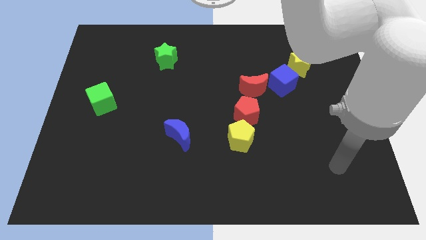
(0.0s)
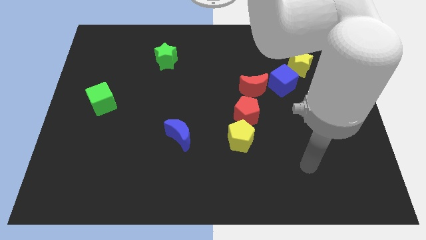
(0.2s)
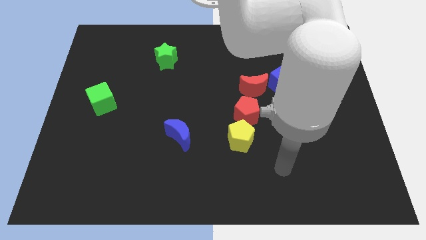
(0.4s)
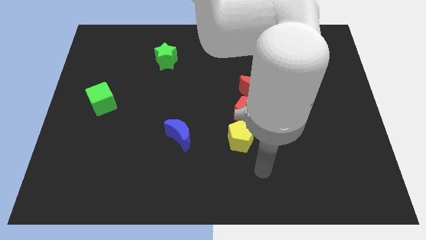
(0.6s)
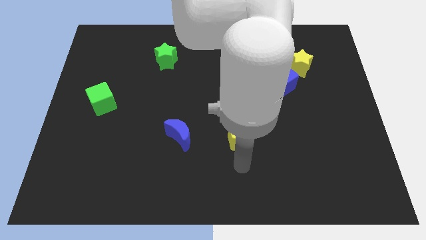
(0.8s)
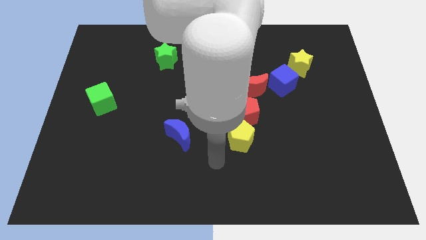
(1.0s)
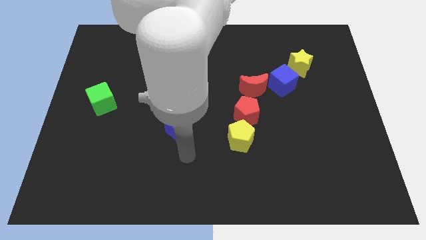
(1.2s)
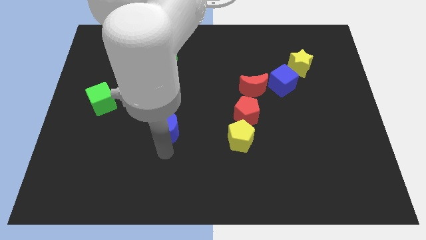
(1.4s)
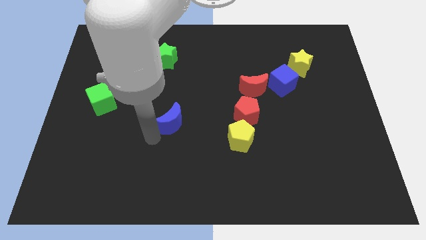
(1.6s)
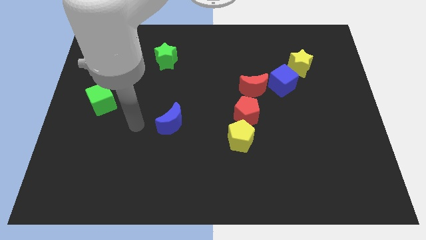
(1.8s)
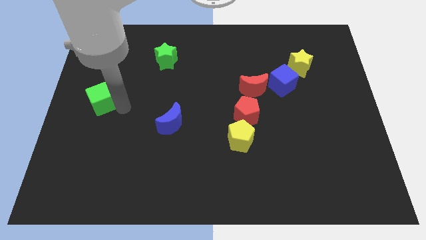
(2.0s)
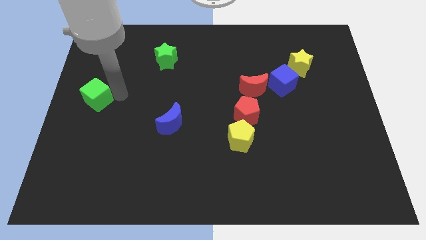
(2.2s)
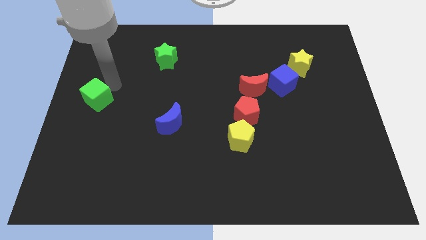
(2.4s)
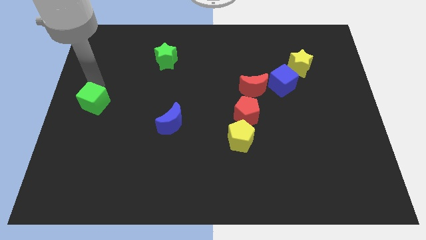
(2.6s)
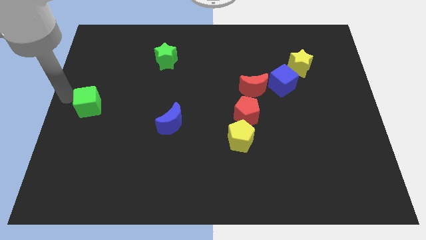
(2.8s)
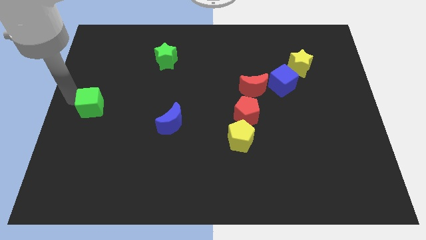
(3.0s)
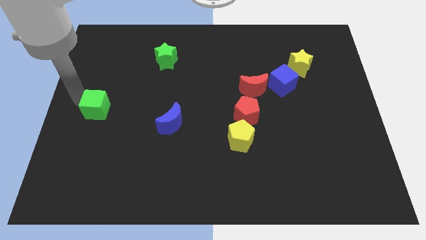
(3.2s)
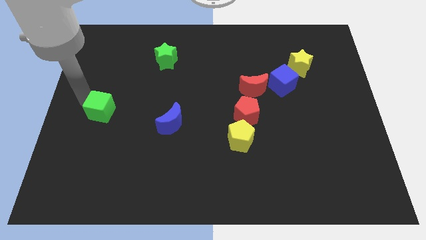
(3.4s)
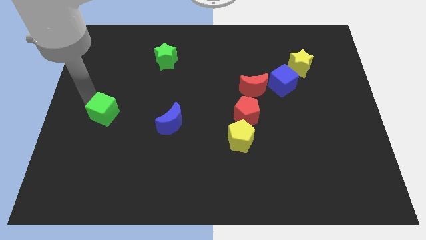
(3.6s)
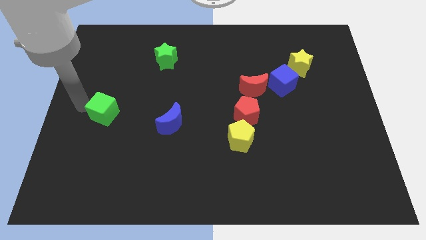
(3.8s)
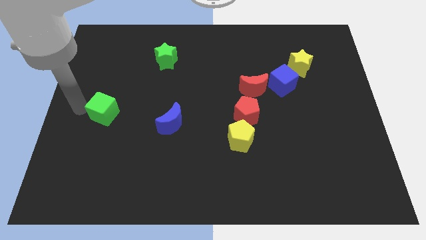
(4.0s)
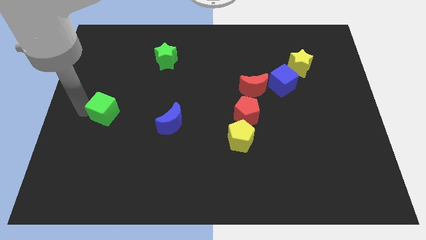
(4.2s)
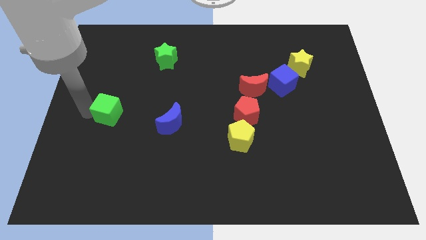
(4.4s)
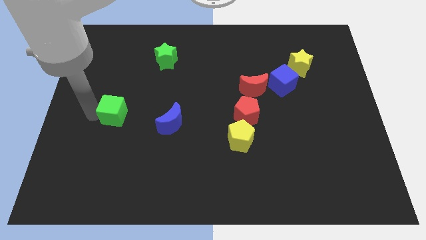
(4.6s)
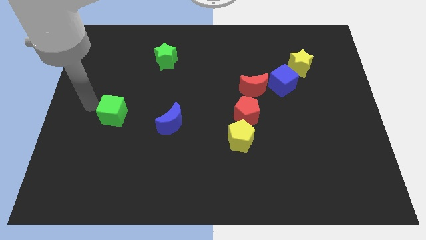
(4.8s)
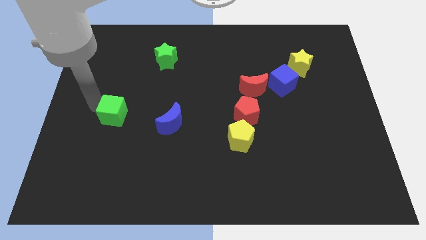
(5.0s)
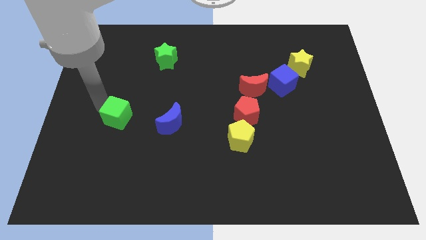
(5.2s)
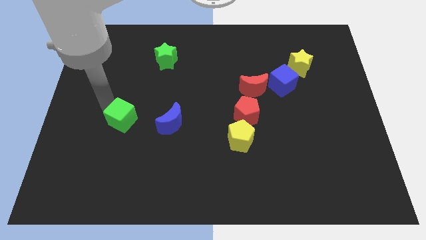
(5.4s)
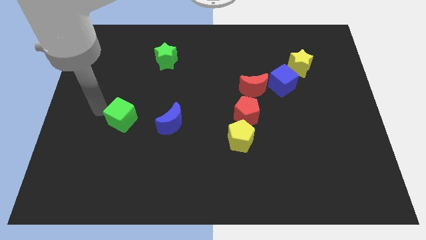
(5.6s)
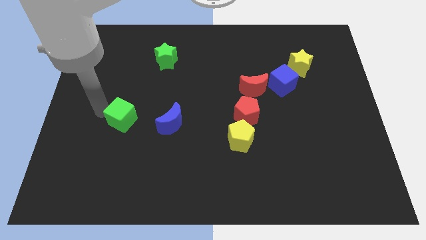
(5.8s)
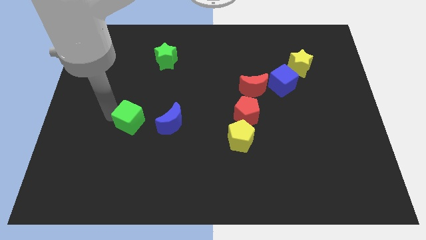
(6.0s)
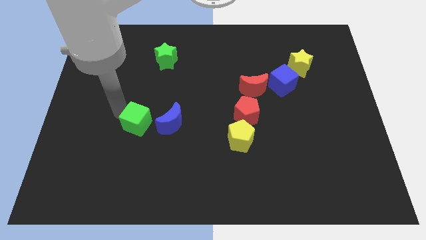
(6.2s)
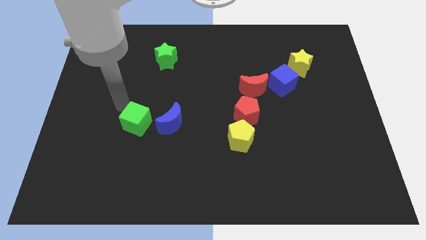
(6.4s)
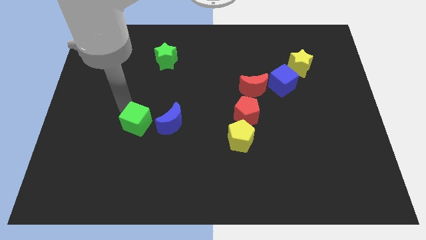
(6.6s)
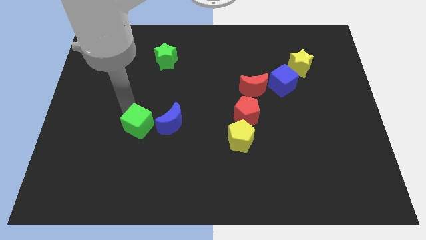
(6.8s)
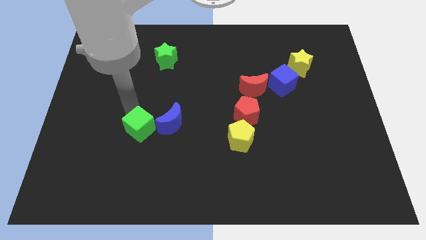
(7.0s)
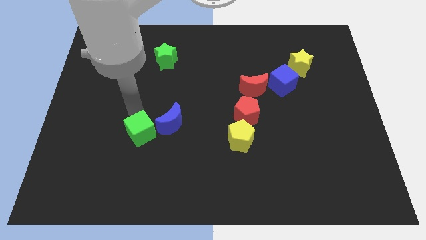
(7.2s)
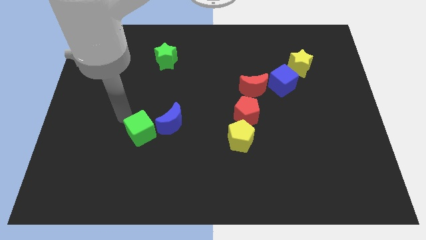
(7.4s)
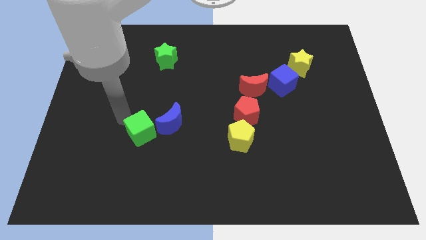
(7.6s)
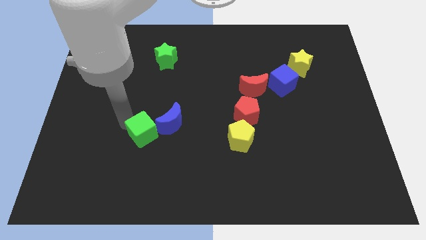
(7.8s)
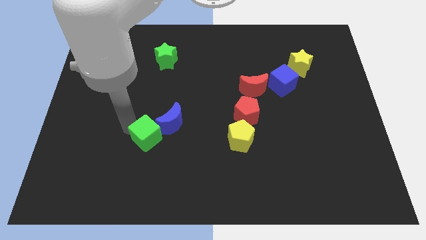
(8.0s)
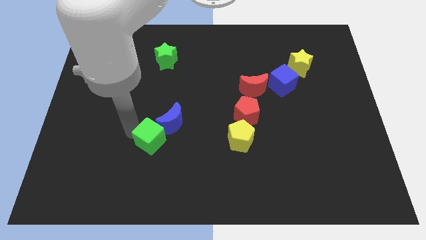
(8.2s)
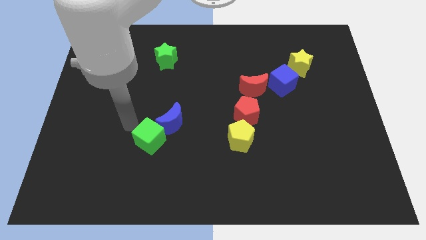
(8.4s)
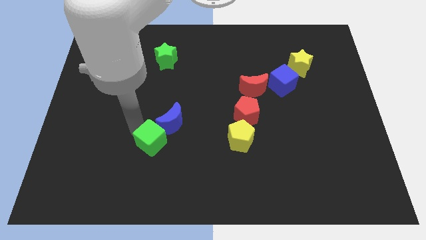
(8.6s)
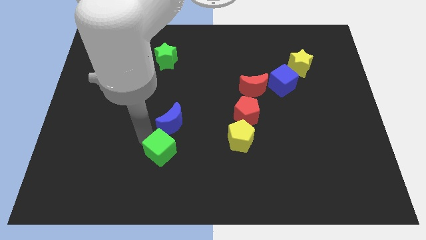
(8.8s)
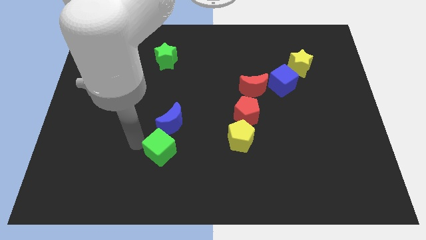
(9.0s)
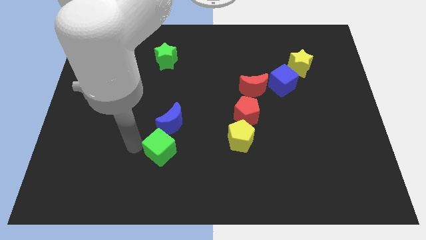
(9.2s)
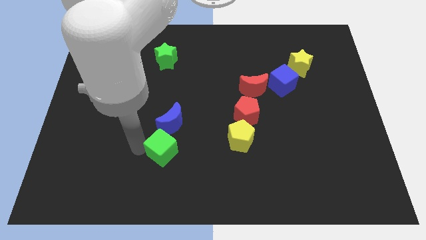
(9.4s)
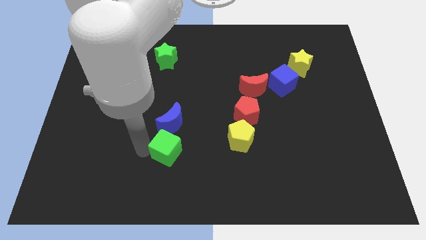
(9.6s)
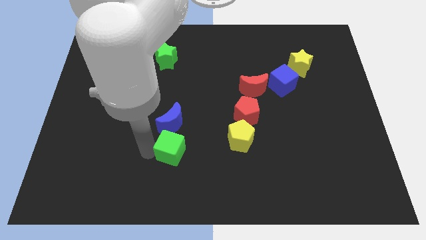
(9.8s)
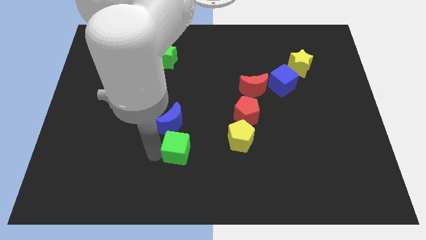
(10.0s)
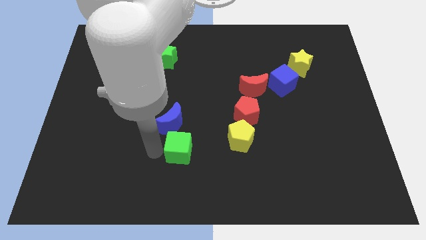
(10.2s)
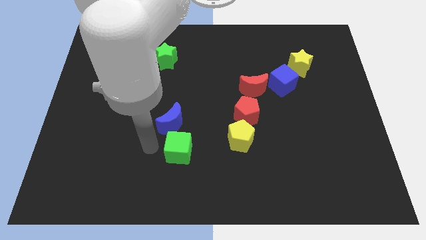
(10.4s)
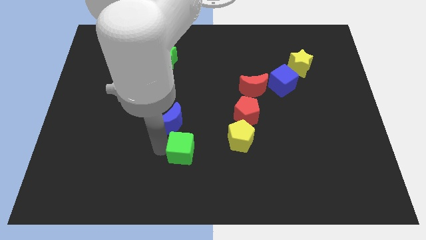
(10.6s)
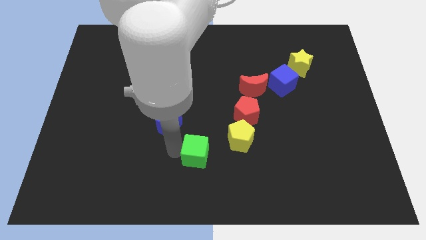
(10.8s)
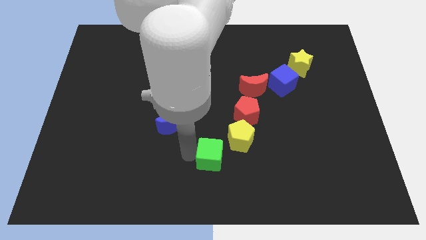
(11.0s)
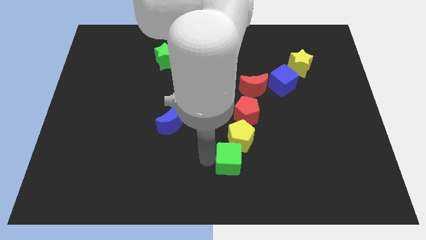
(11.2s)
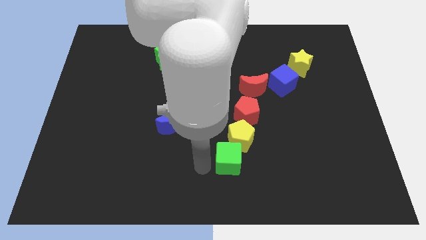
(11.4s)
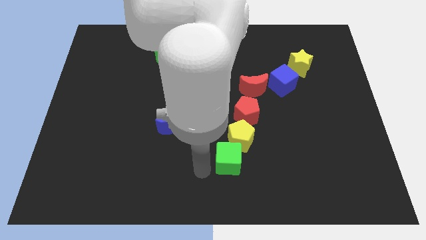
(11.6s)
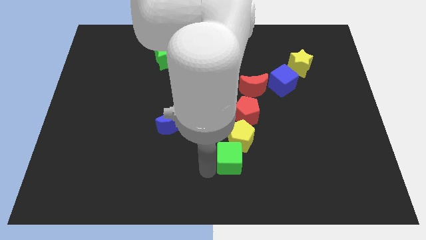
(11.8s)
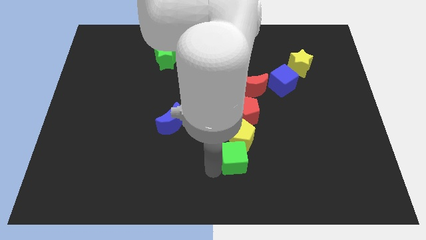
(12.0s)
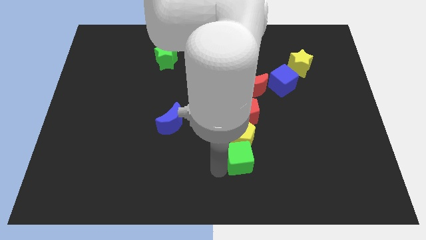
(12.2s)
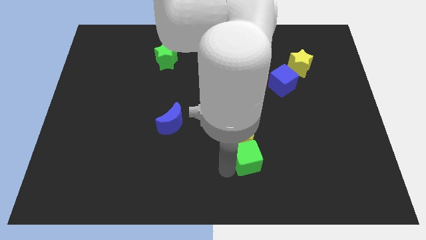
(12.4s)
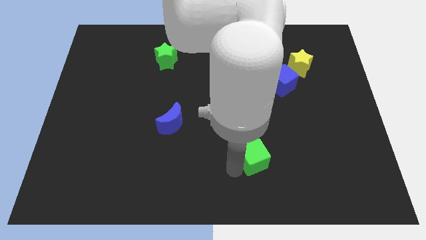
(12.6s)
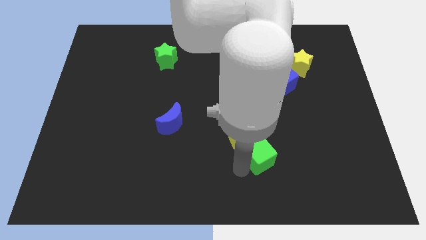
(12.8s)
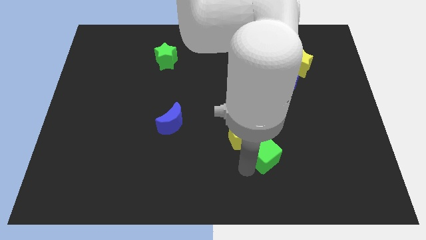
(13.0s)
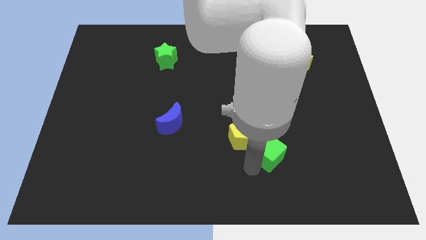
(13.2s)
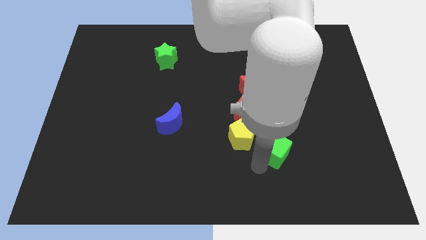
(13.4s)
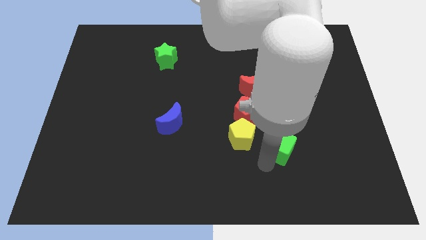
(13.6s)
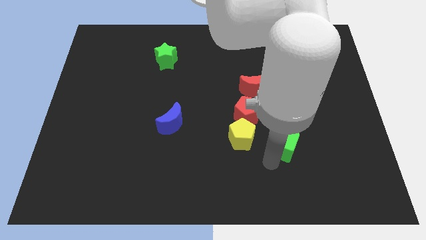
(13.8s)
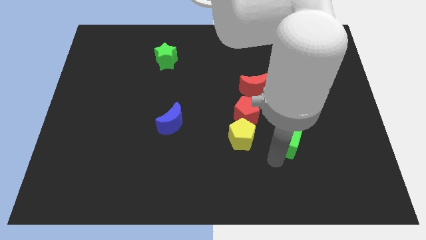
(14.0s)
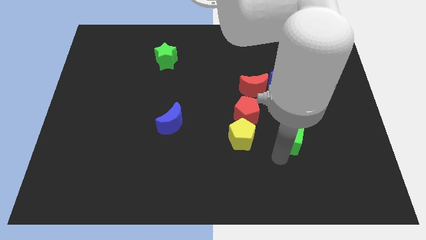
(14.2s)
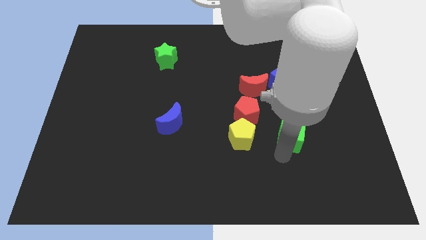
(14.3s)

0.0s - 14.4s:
slide the green cube to the bottom side of the blue cube

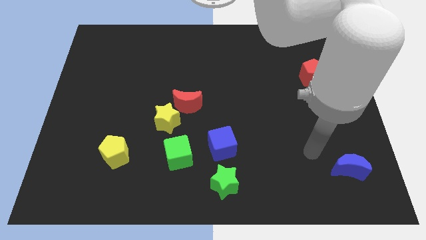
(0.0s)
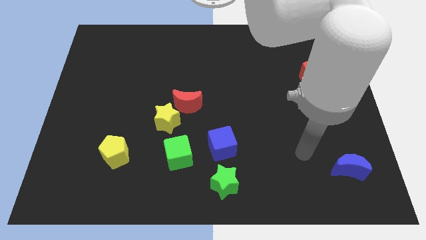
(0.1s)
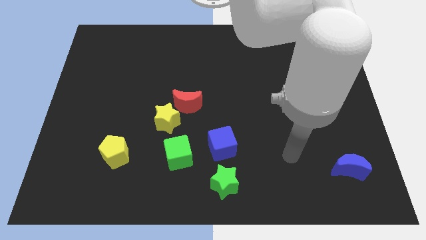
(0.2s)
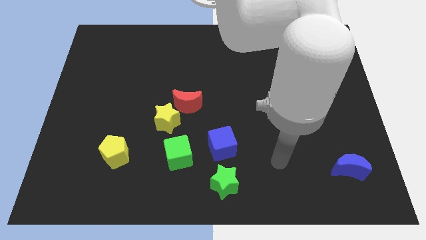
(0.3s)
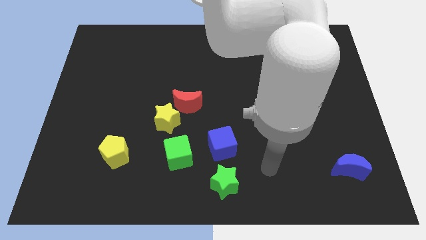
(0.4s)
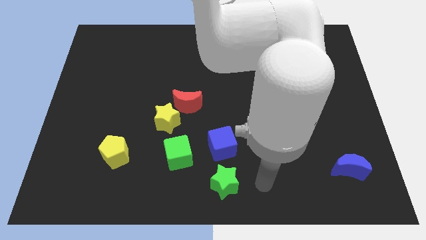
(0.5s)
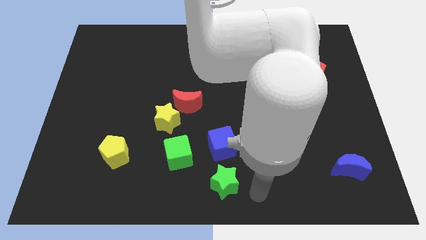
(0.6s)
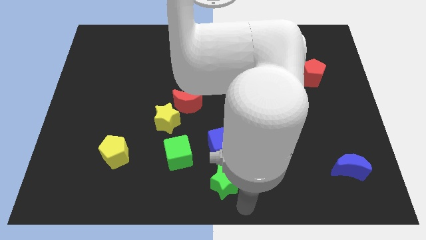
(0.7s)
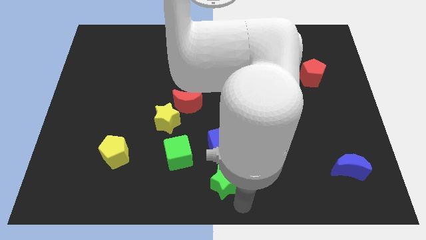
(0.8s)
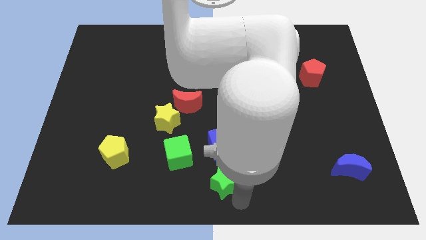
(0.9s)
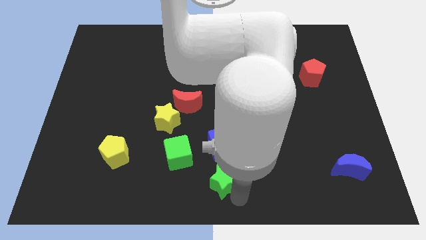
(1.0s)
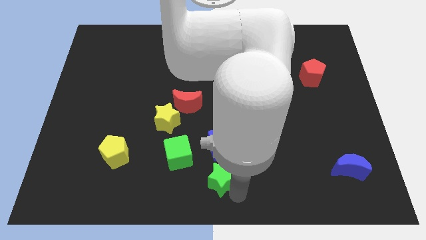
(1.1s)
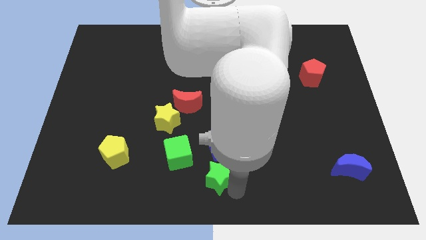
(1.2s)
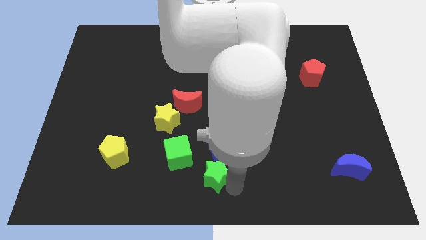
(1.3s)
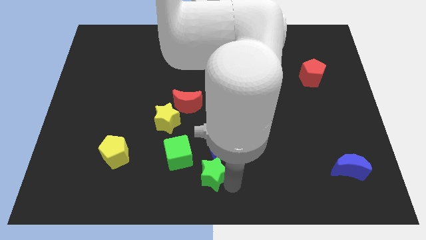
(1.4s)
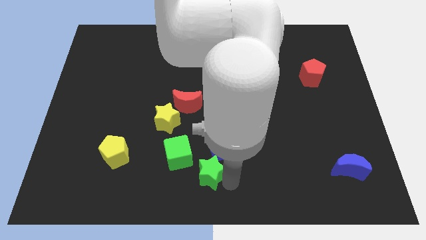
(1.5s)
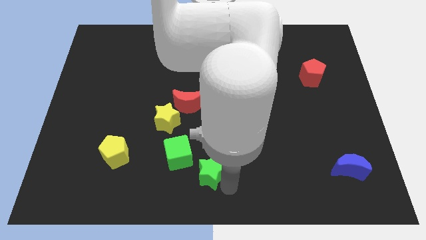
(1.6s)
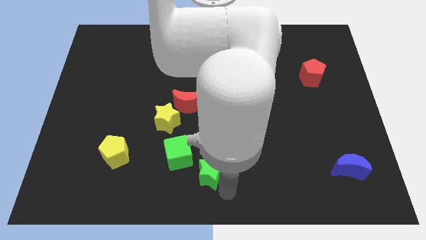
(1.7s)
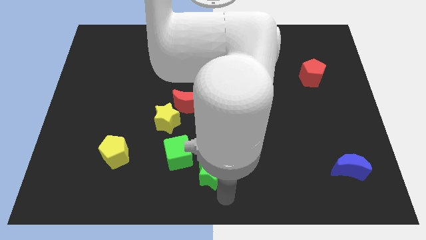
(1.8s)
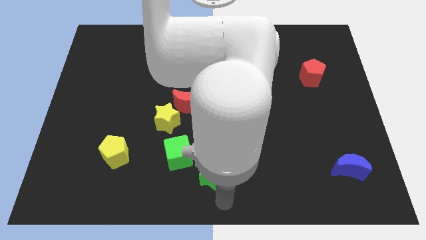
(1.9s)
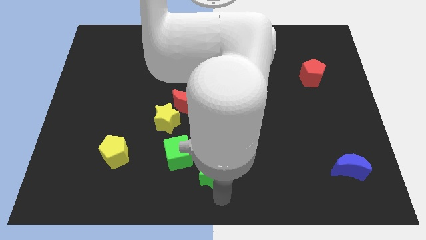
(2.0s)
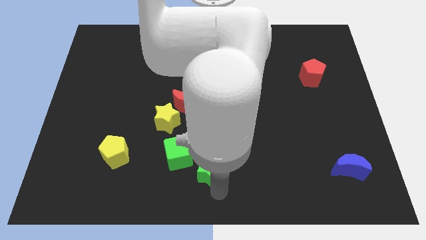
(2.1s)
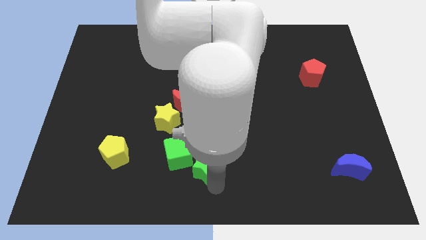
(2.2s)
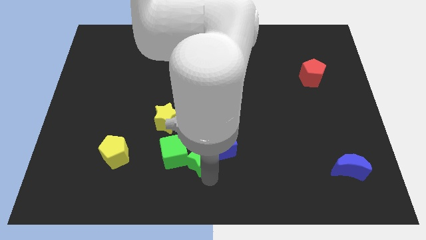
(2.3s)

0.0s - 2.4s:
move the green star just left of the blue cube
